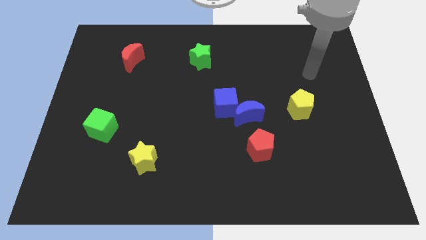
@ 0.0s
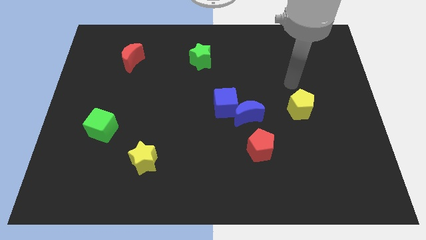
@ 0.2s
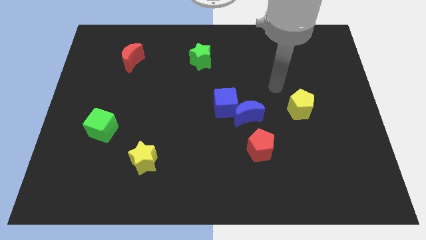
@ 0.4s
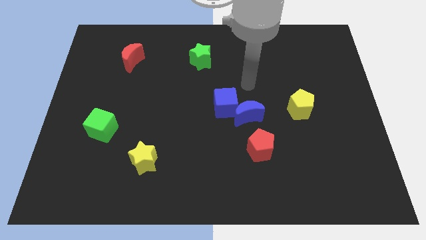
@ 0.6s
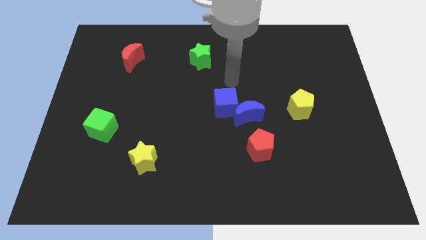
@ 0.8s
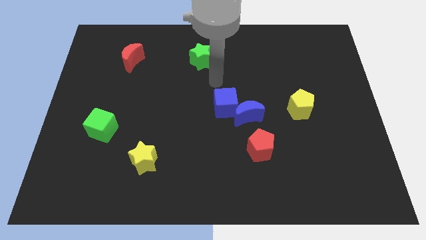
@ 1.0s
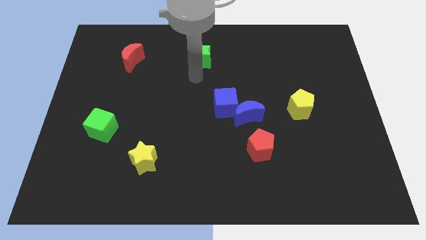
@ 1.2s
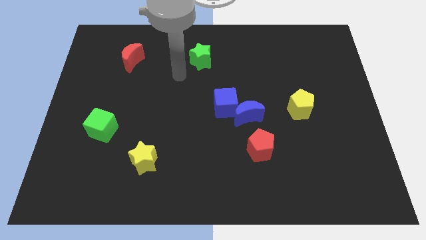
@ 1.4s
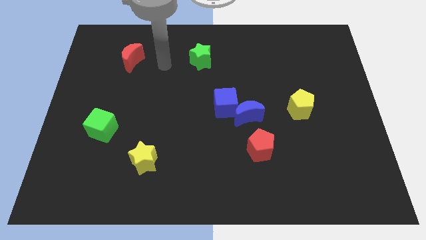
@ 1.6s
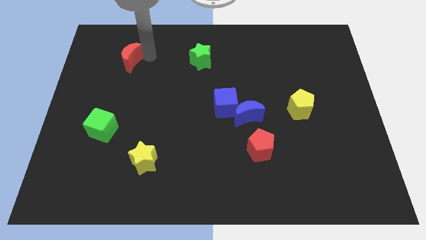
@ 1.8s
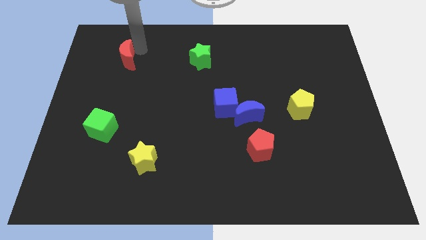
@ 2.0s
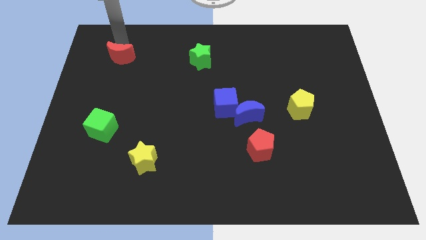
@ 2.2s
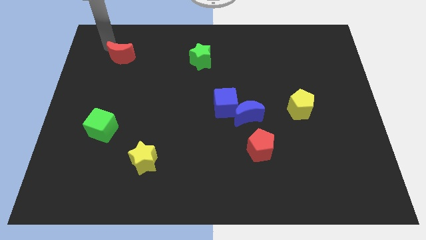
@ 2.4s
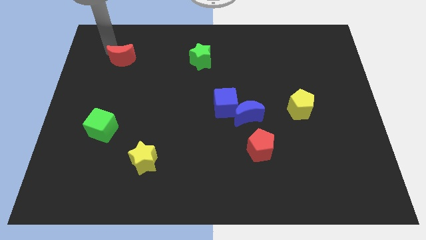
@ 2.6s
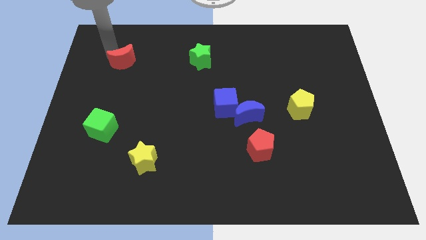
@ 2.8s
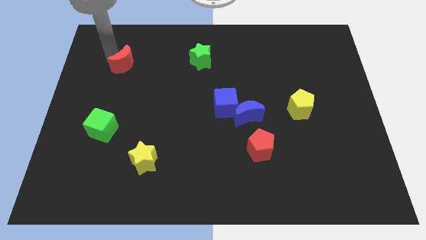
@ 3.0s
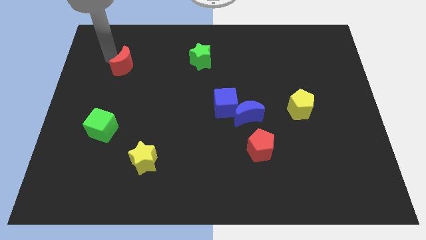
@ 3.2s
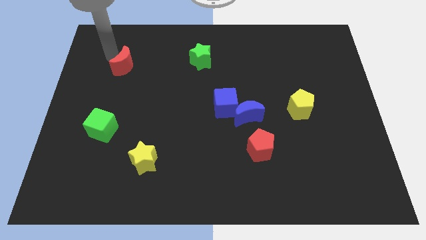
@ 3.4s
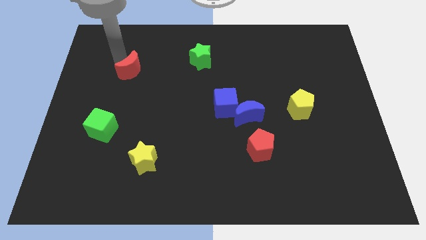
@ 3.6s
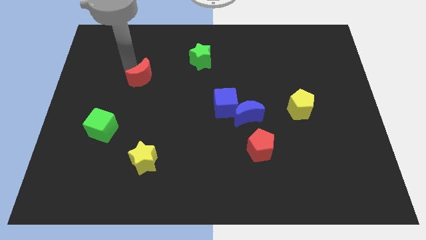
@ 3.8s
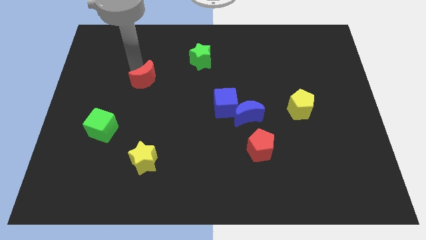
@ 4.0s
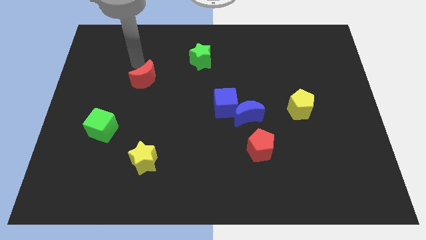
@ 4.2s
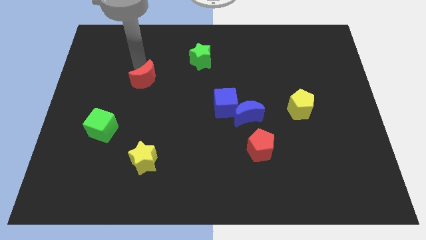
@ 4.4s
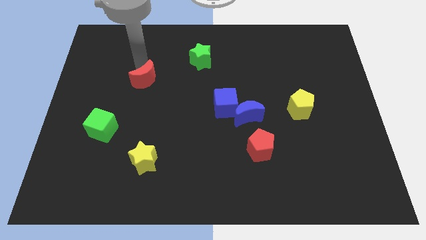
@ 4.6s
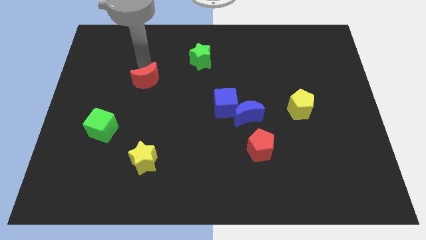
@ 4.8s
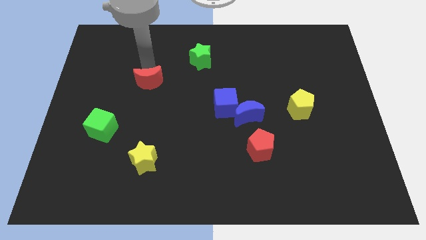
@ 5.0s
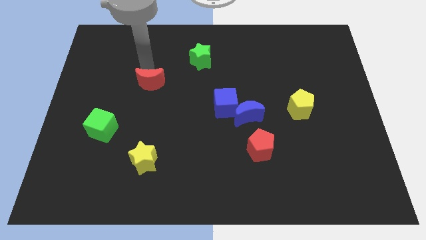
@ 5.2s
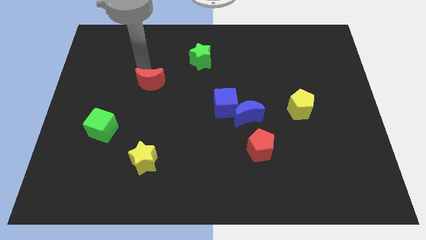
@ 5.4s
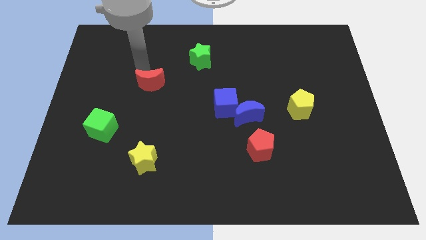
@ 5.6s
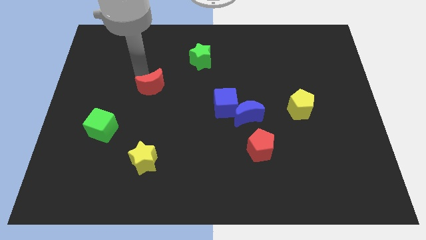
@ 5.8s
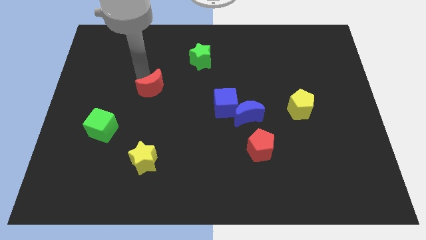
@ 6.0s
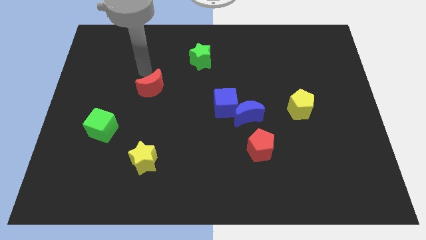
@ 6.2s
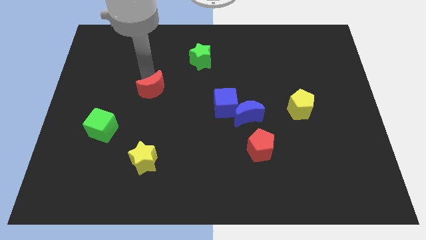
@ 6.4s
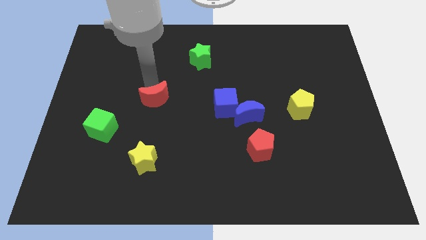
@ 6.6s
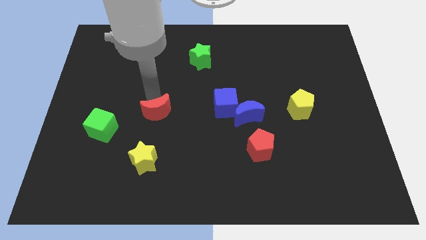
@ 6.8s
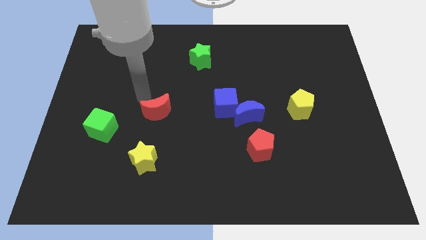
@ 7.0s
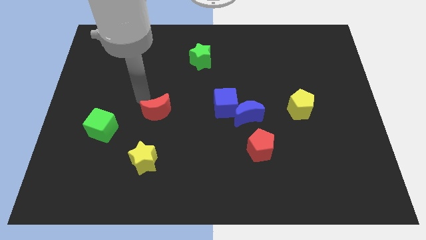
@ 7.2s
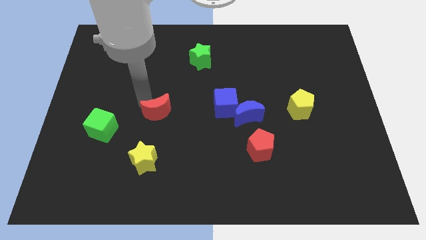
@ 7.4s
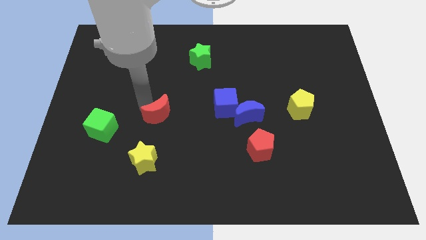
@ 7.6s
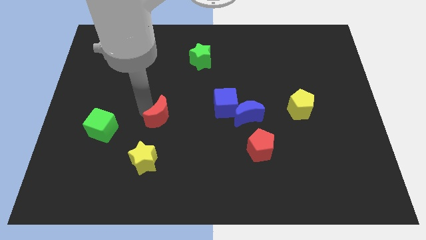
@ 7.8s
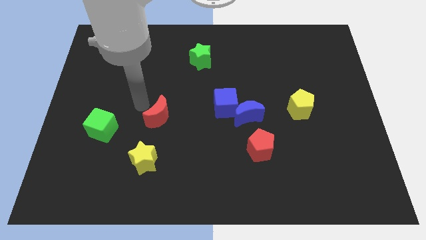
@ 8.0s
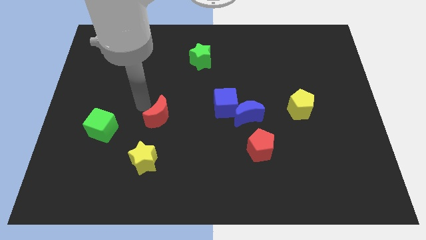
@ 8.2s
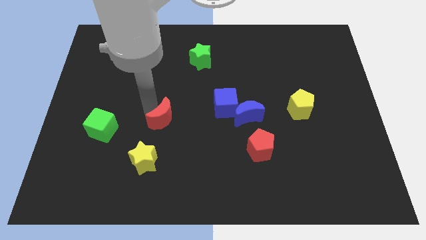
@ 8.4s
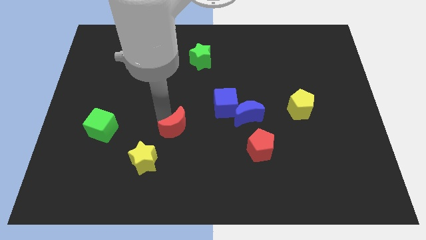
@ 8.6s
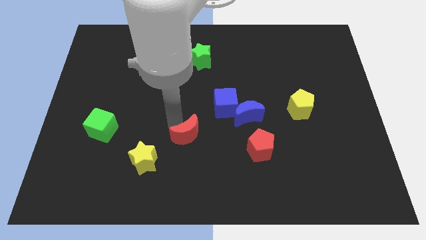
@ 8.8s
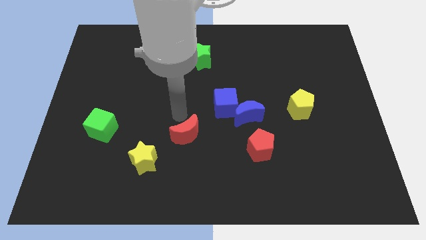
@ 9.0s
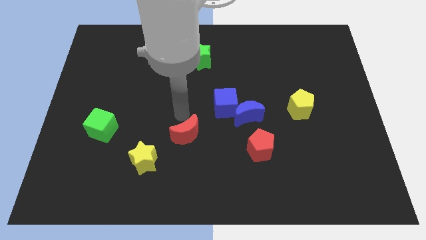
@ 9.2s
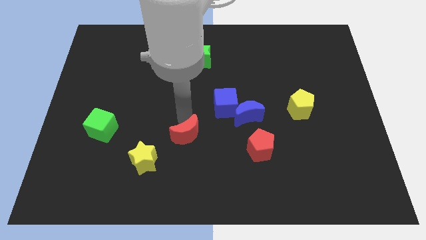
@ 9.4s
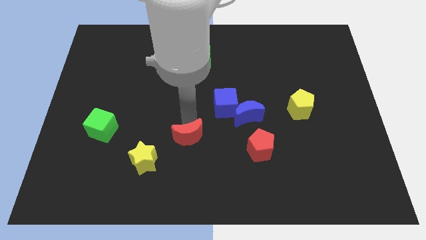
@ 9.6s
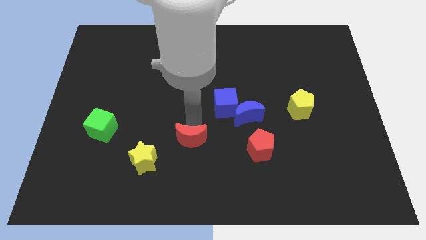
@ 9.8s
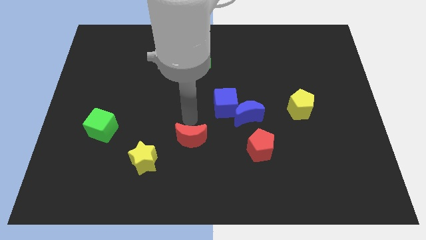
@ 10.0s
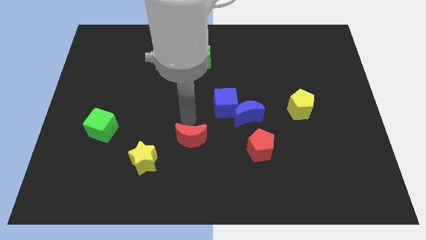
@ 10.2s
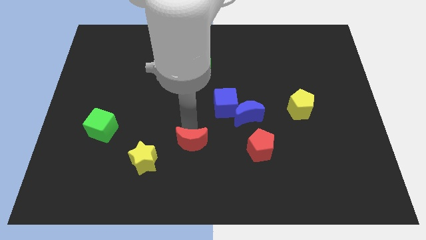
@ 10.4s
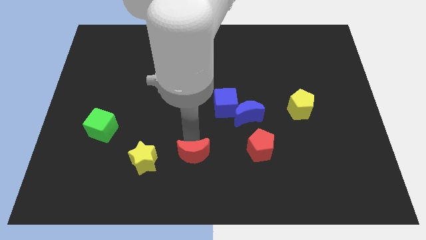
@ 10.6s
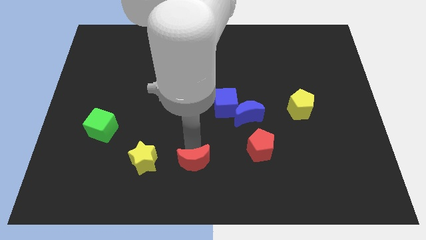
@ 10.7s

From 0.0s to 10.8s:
put the red moon to the bottom side
